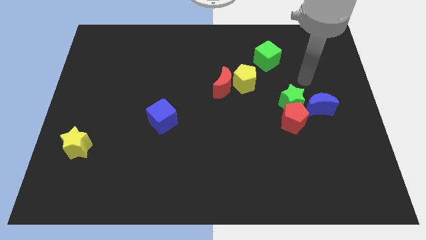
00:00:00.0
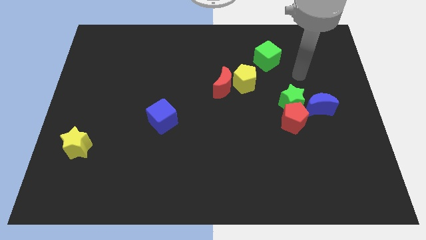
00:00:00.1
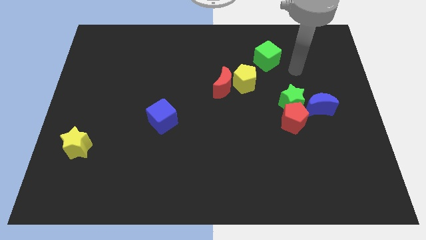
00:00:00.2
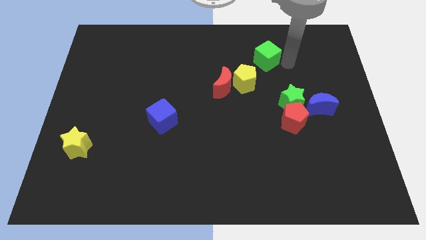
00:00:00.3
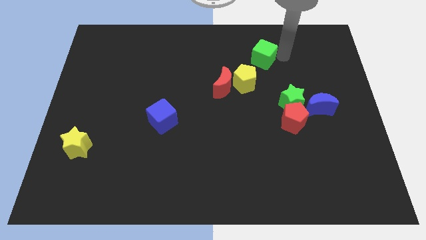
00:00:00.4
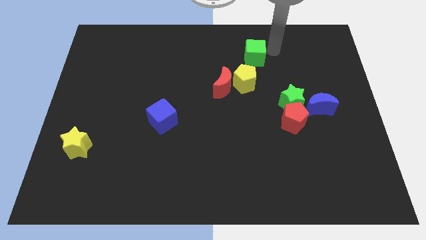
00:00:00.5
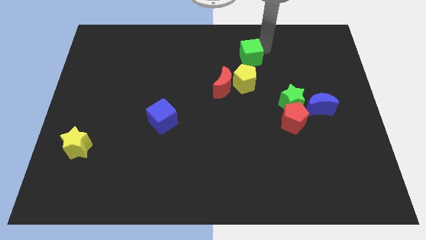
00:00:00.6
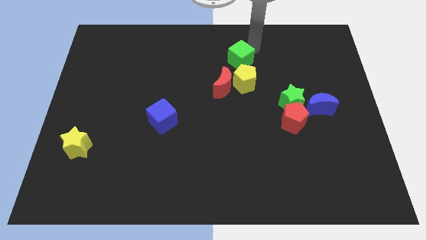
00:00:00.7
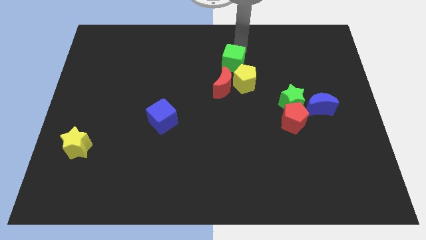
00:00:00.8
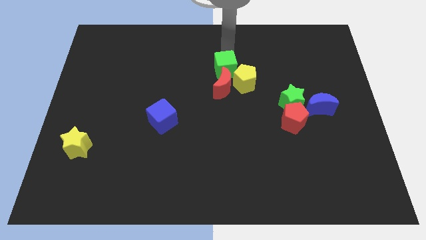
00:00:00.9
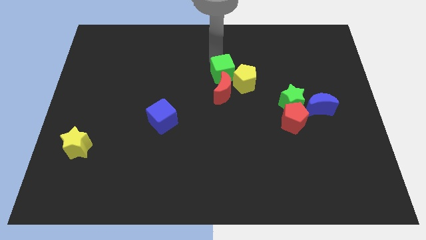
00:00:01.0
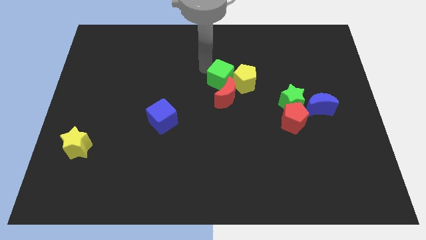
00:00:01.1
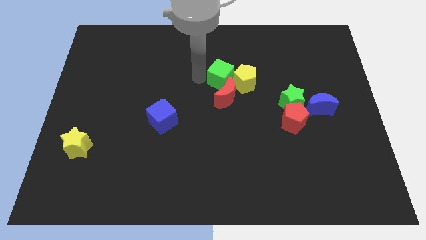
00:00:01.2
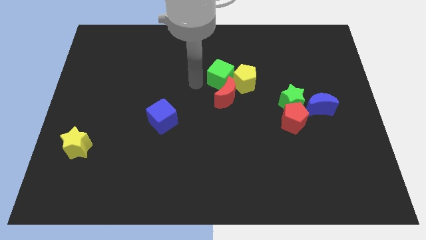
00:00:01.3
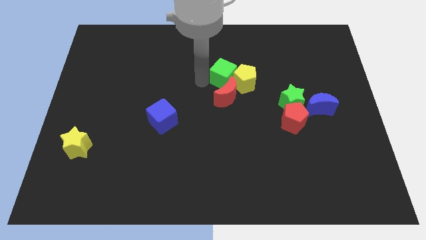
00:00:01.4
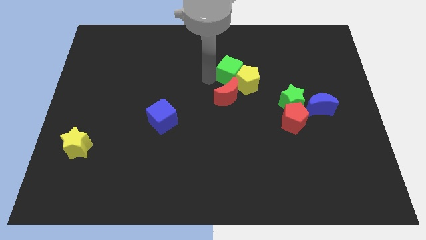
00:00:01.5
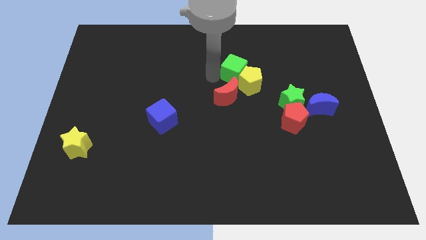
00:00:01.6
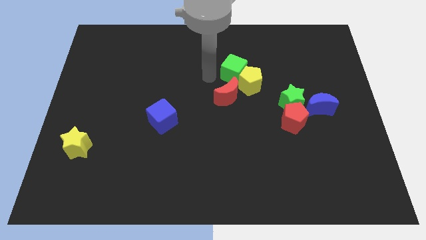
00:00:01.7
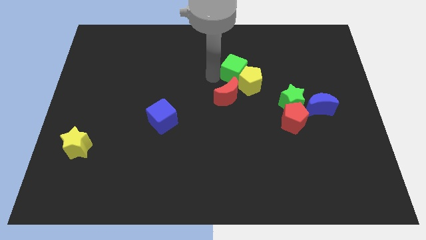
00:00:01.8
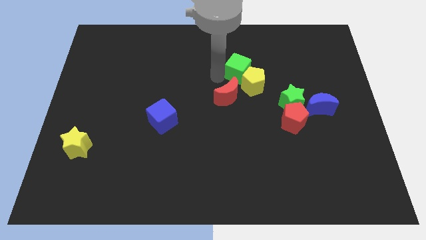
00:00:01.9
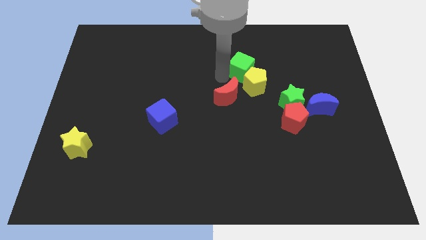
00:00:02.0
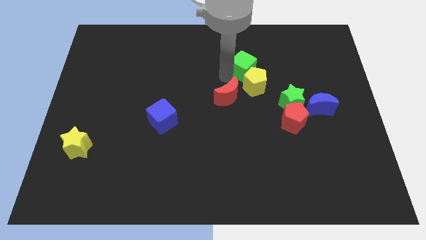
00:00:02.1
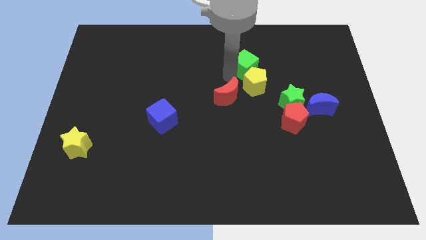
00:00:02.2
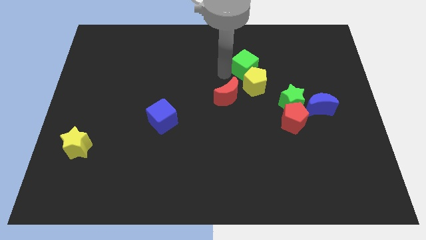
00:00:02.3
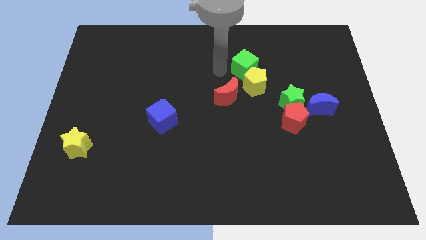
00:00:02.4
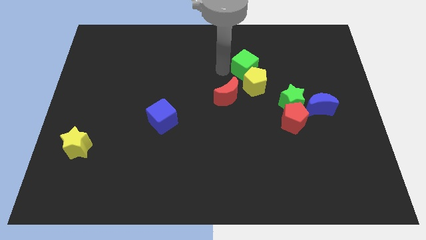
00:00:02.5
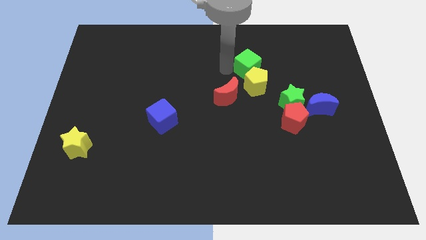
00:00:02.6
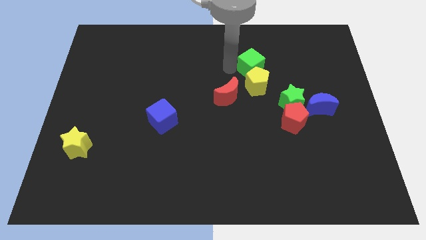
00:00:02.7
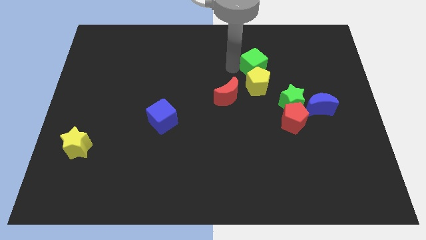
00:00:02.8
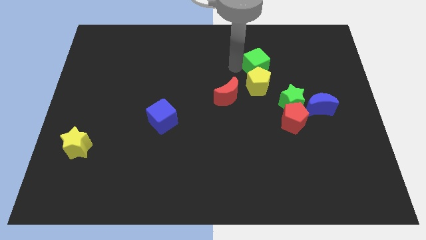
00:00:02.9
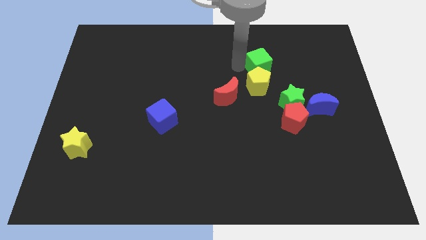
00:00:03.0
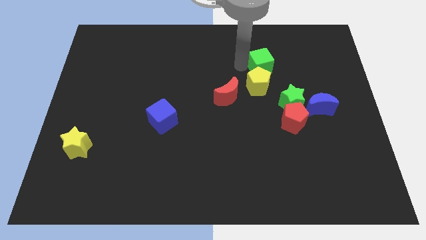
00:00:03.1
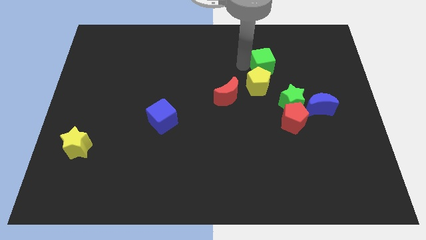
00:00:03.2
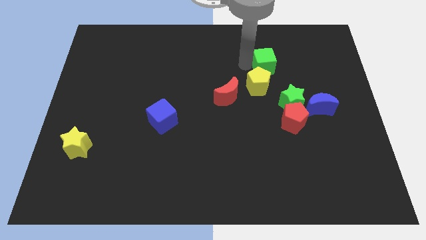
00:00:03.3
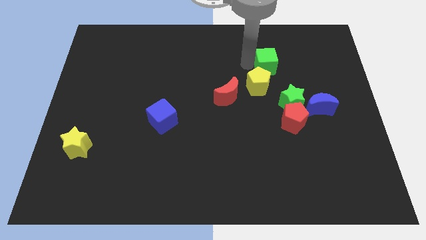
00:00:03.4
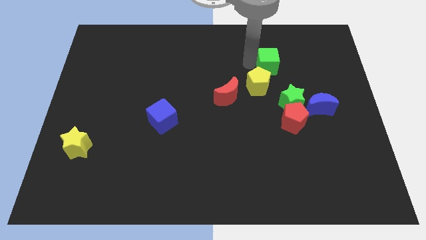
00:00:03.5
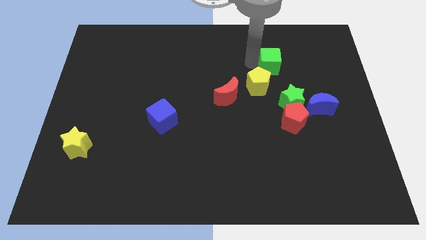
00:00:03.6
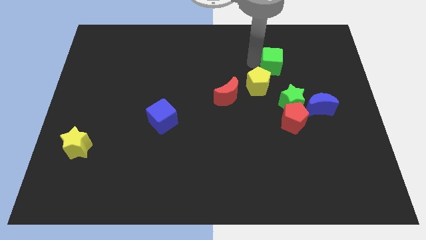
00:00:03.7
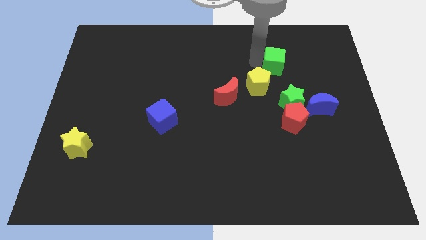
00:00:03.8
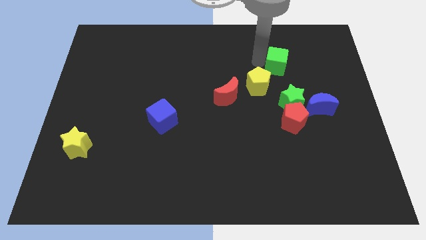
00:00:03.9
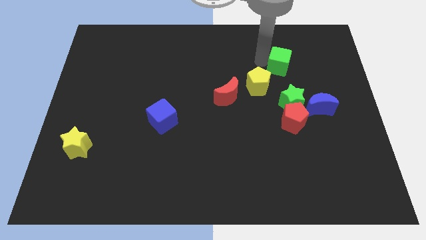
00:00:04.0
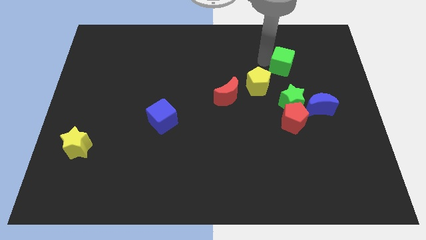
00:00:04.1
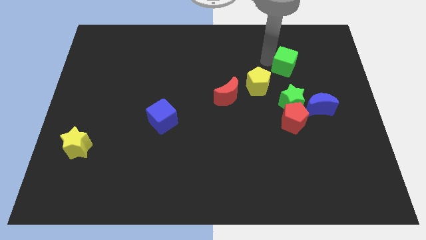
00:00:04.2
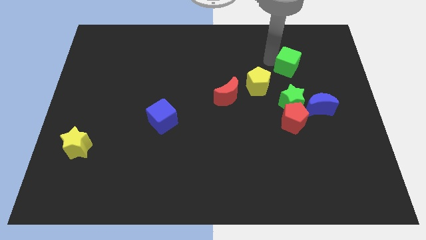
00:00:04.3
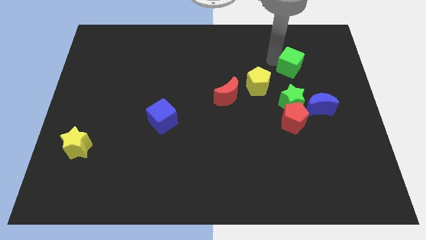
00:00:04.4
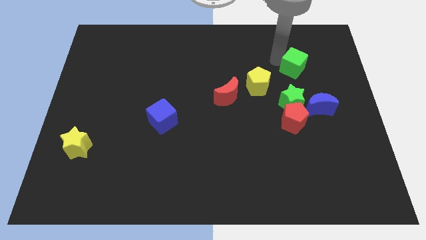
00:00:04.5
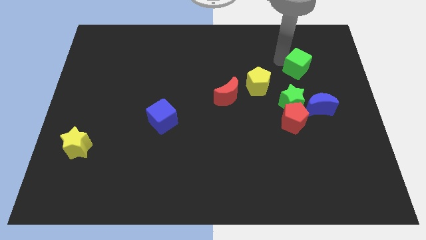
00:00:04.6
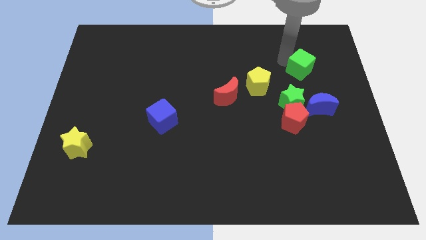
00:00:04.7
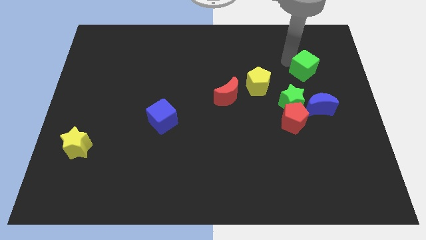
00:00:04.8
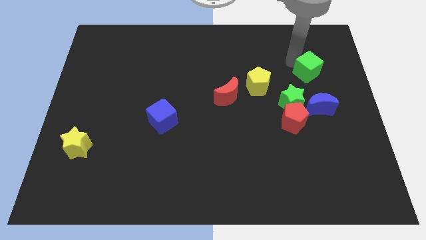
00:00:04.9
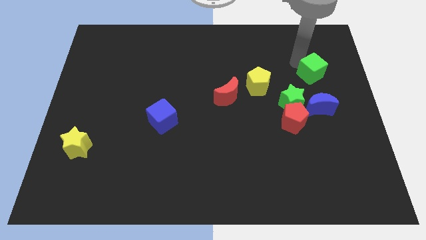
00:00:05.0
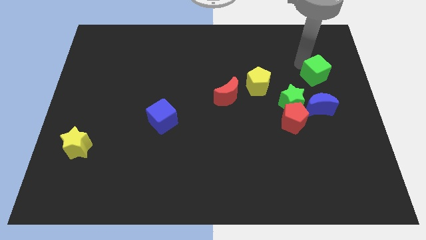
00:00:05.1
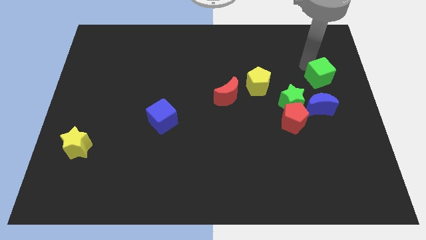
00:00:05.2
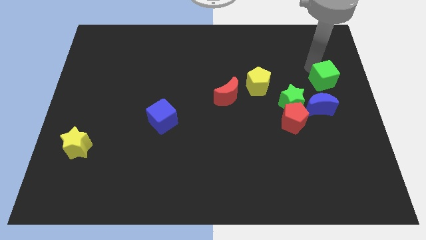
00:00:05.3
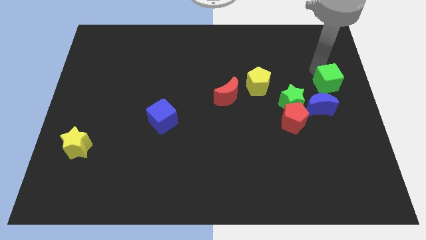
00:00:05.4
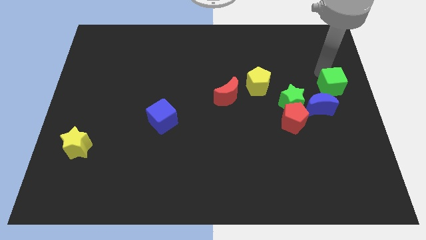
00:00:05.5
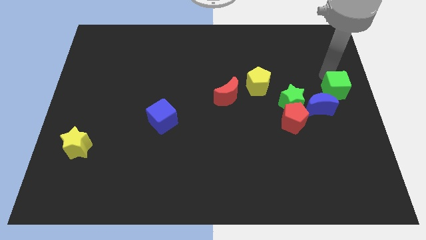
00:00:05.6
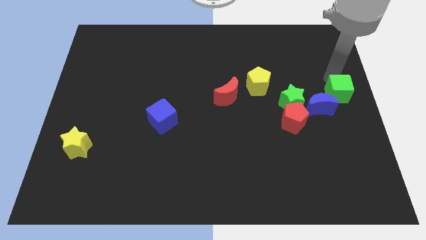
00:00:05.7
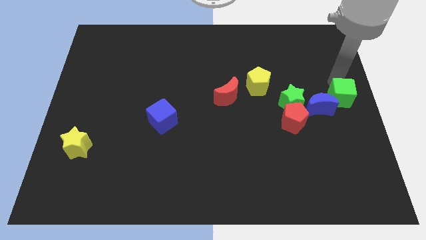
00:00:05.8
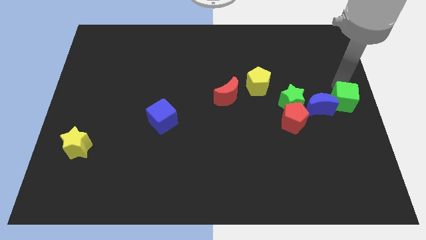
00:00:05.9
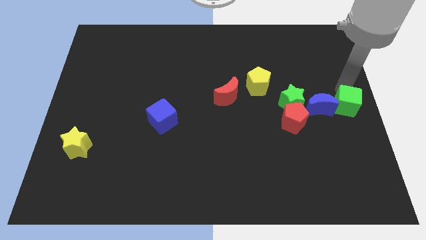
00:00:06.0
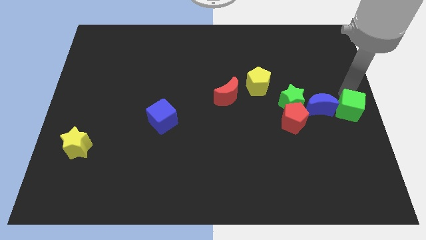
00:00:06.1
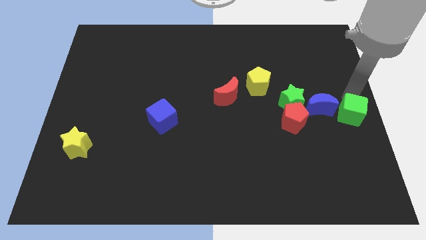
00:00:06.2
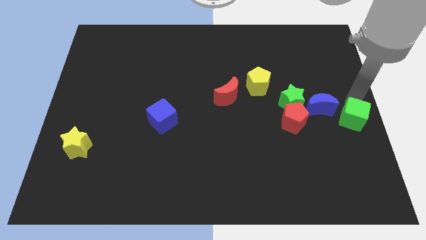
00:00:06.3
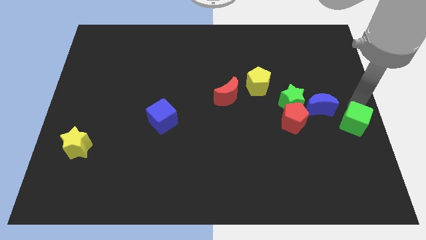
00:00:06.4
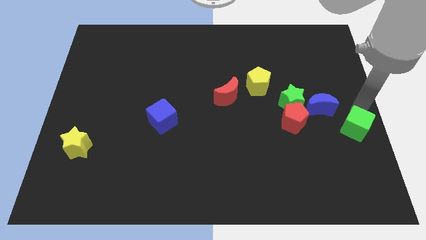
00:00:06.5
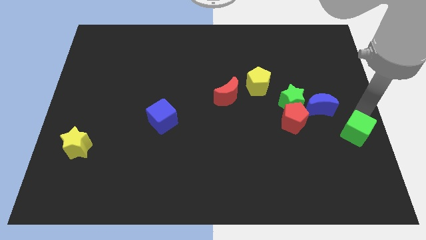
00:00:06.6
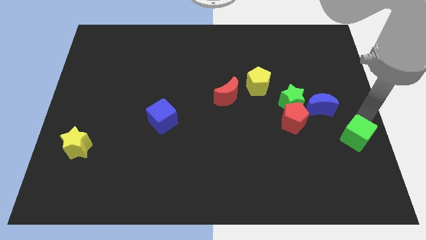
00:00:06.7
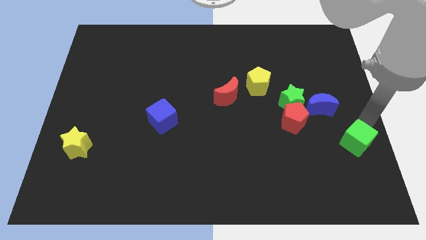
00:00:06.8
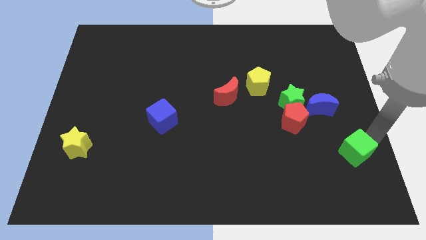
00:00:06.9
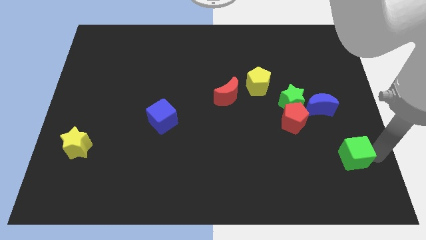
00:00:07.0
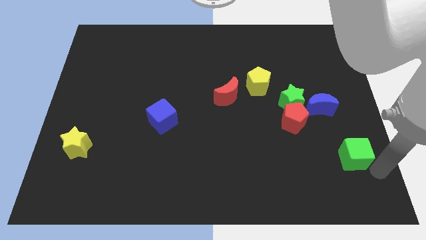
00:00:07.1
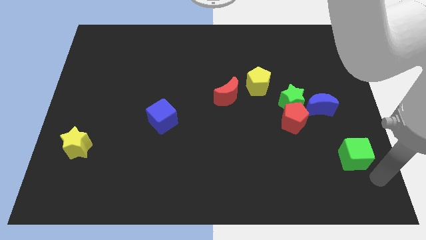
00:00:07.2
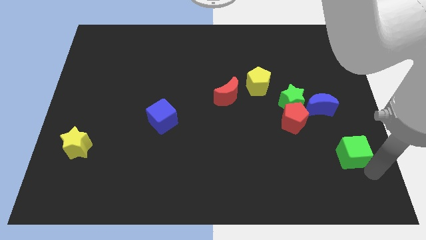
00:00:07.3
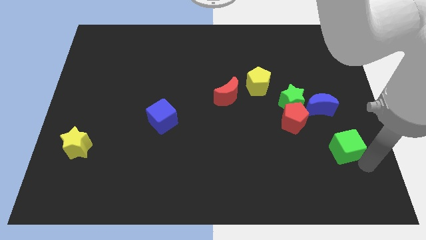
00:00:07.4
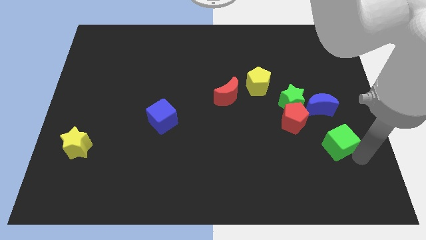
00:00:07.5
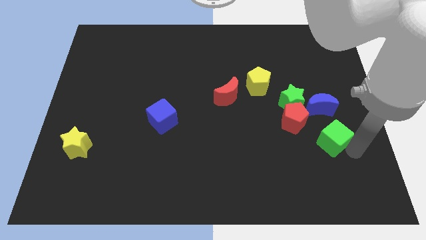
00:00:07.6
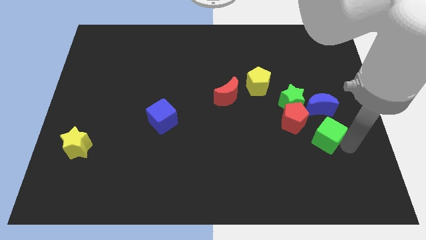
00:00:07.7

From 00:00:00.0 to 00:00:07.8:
slide the green cube downwards somewhat
